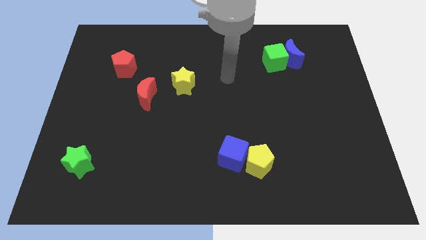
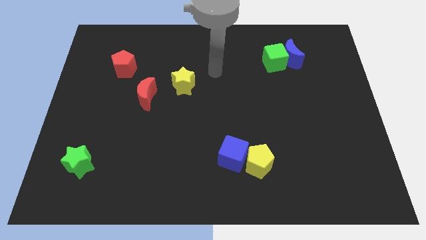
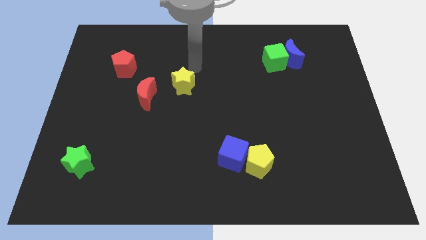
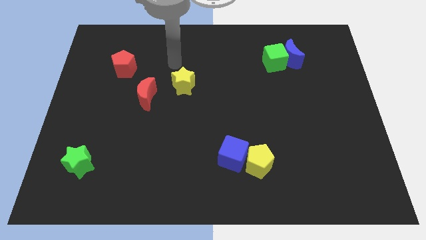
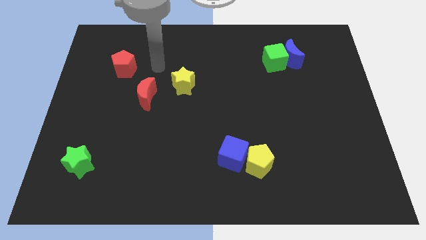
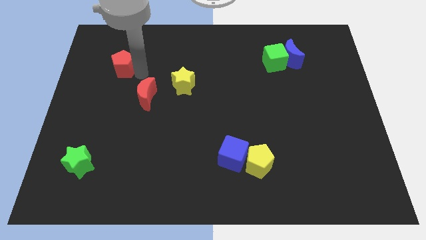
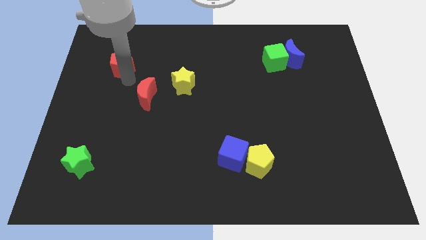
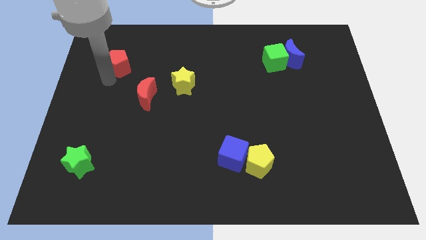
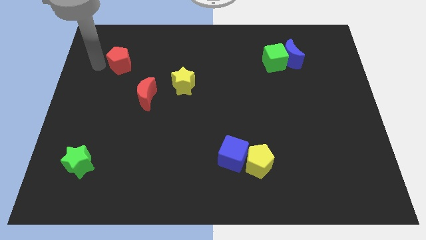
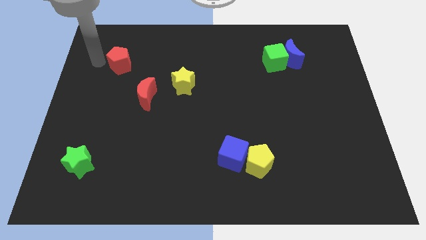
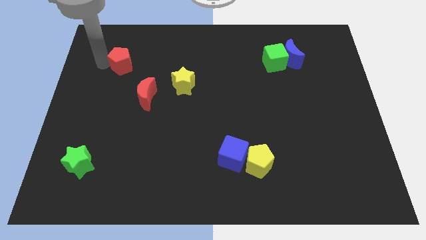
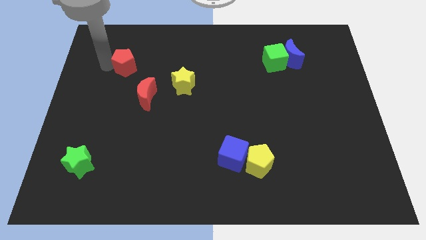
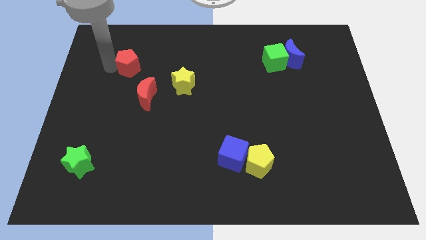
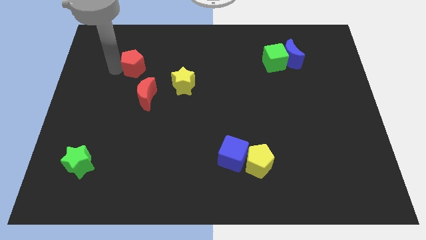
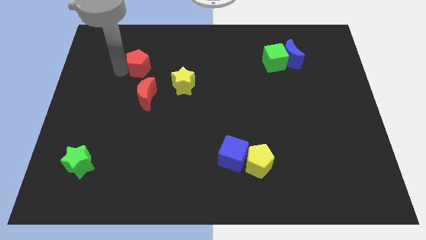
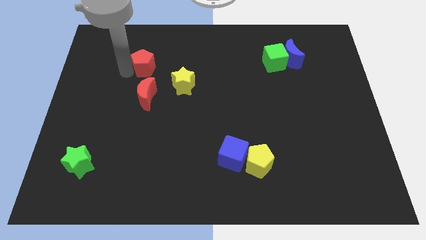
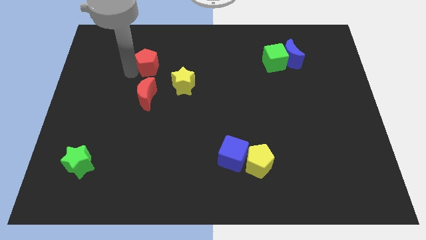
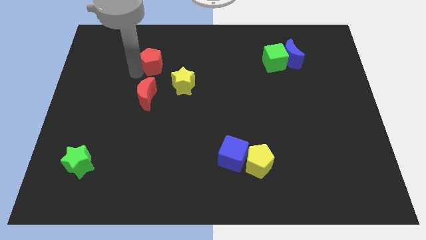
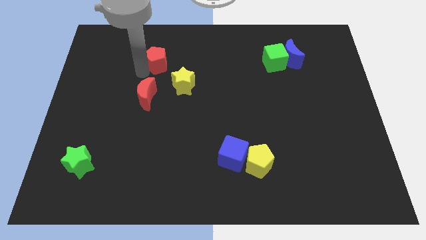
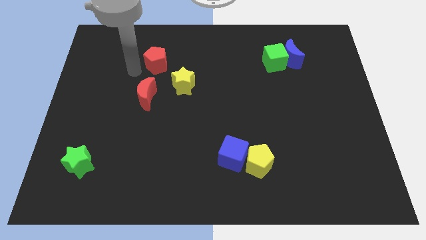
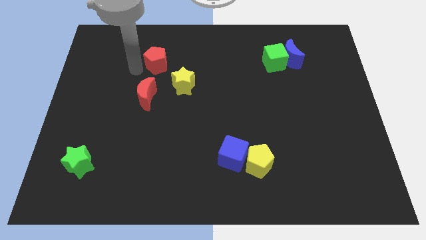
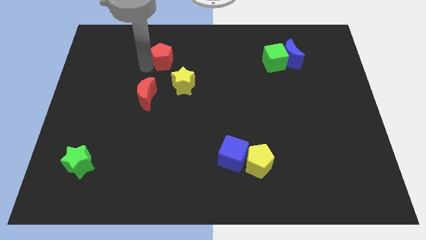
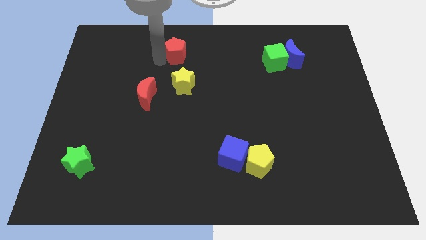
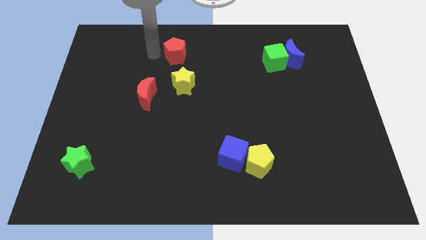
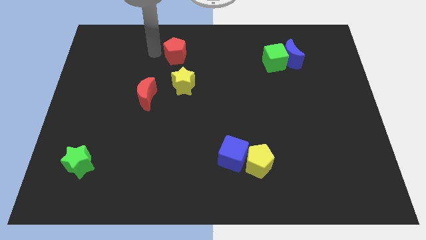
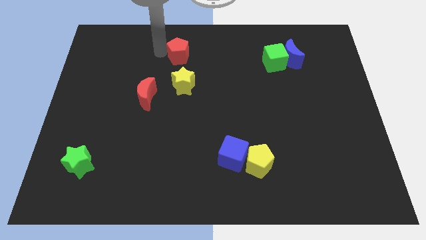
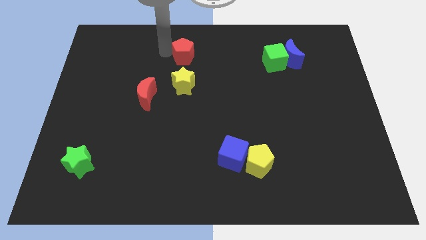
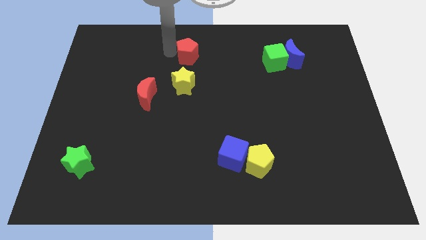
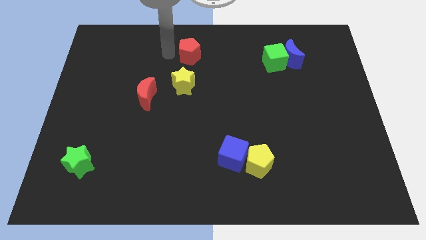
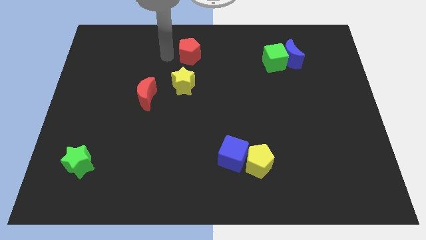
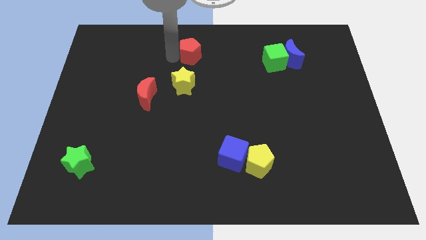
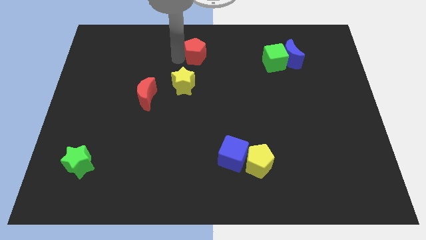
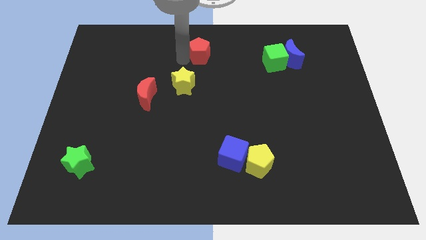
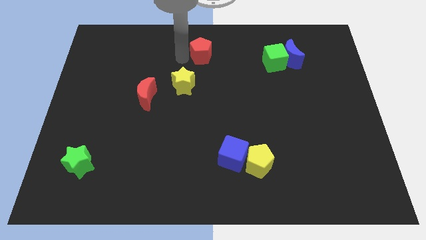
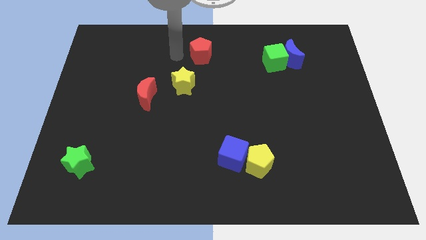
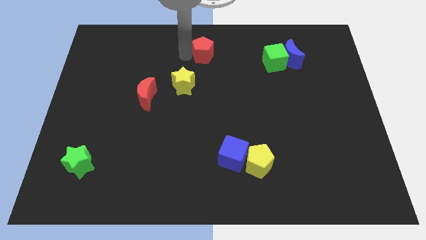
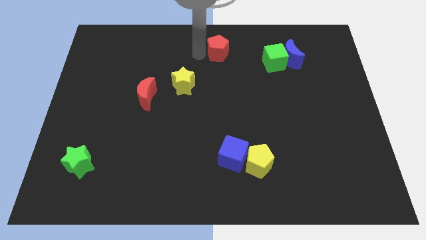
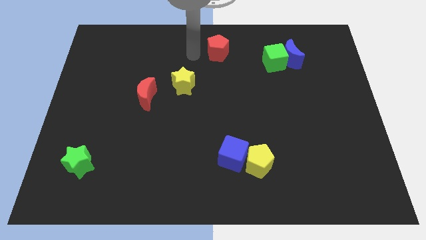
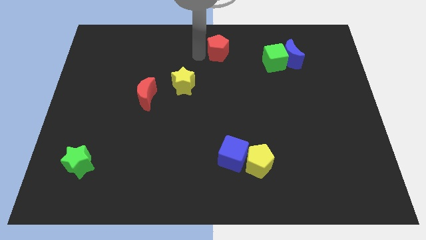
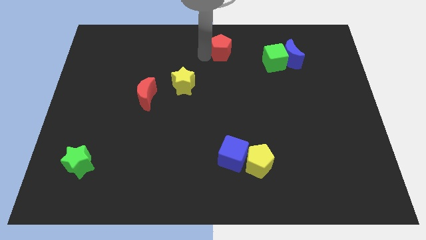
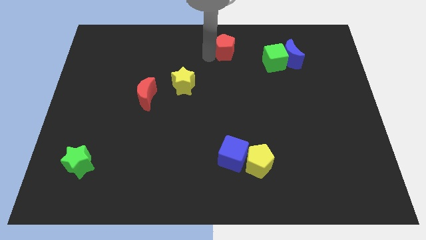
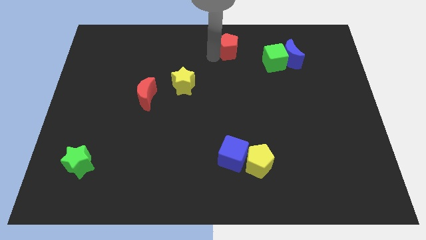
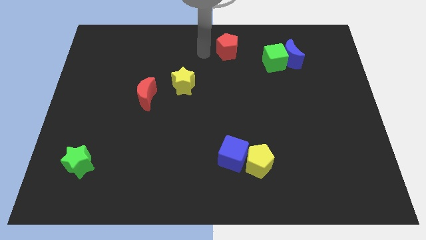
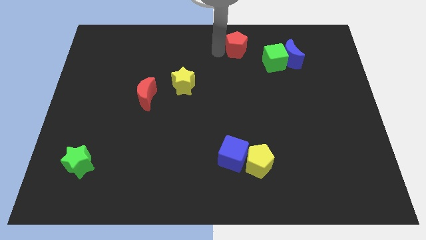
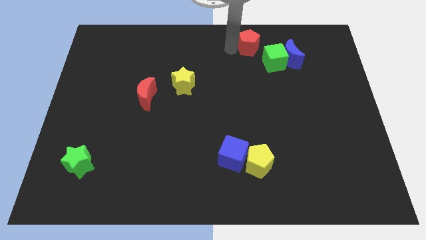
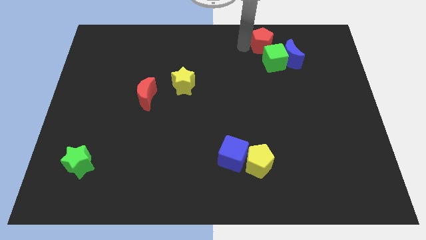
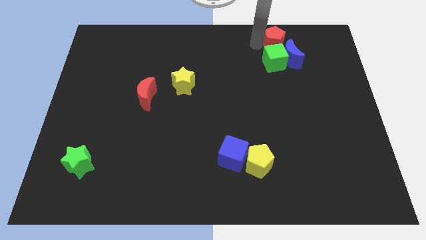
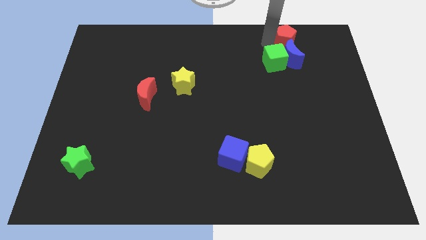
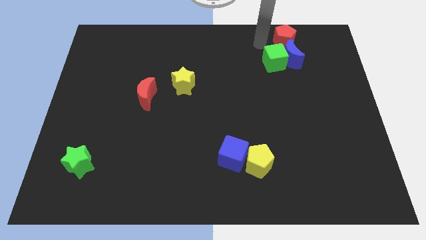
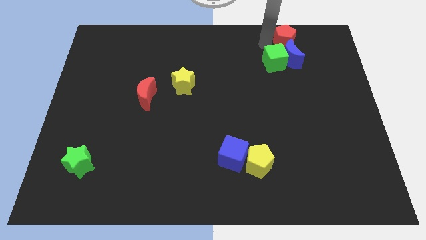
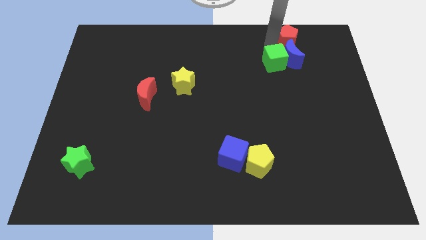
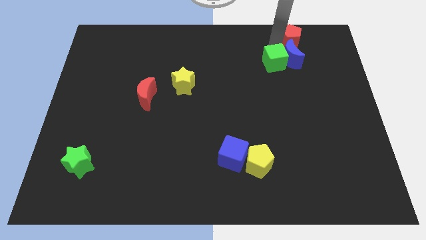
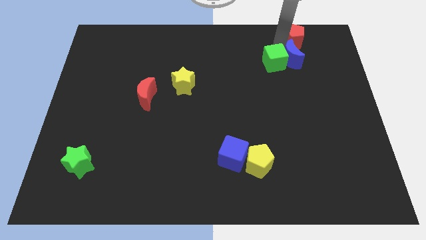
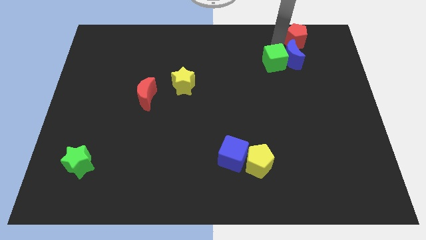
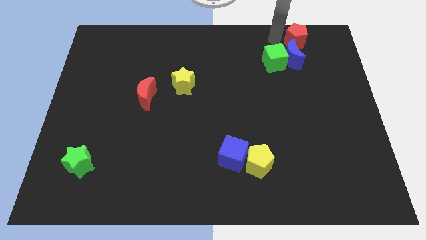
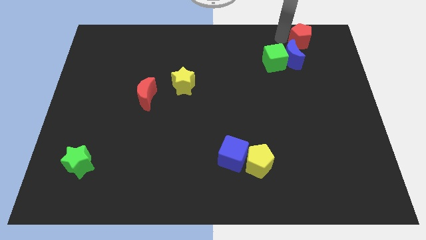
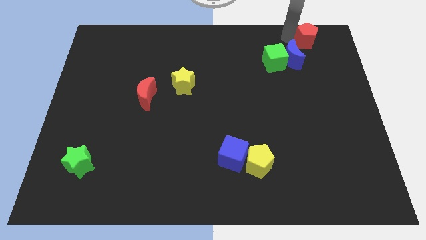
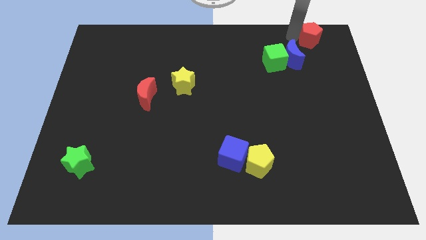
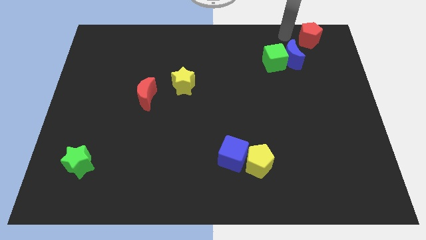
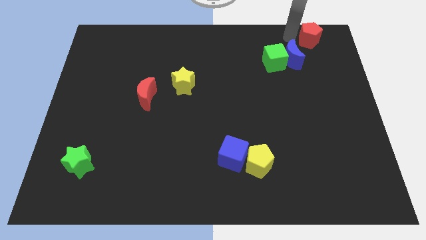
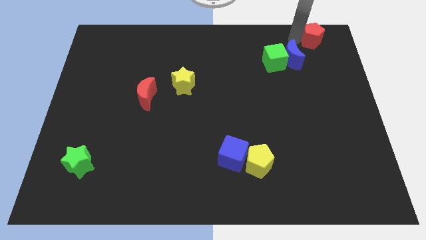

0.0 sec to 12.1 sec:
slide the red pentagon to the top right corner

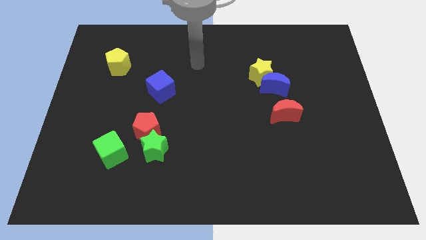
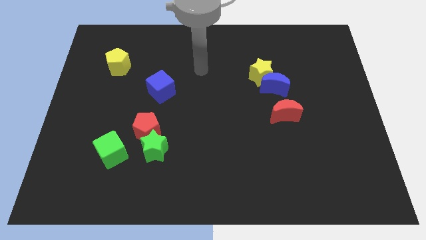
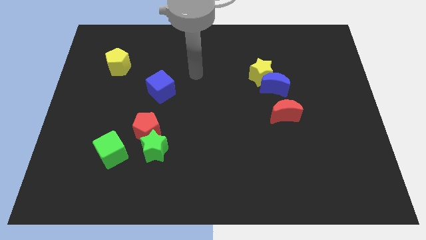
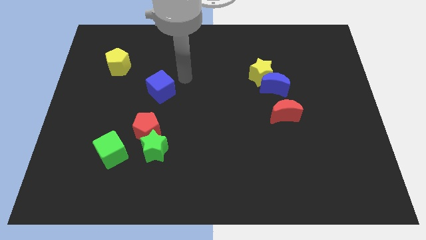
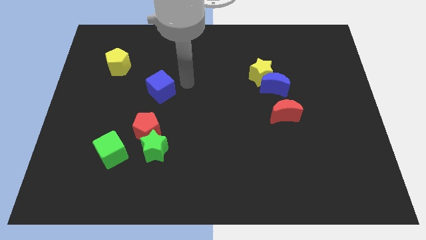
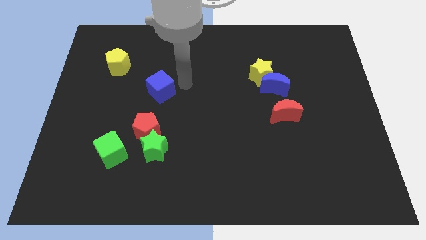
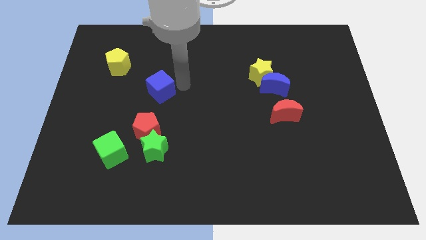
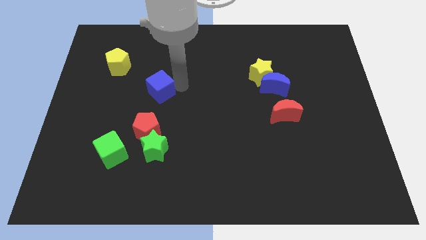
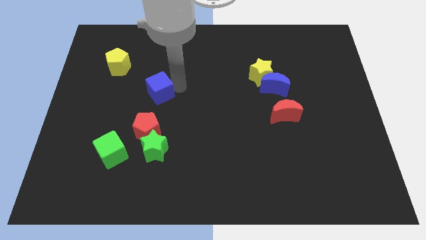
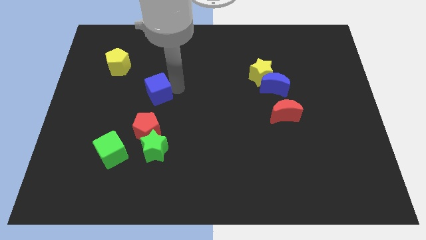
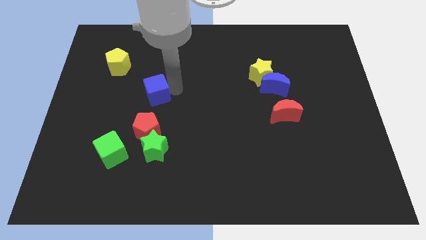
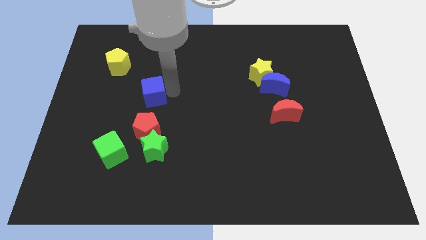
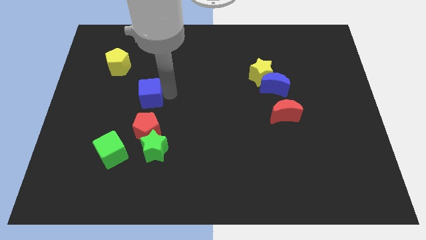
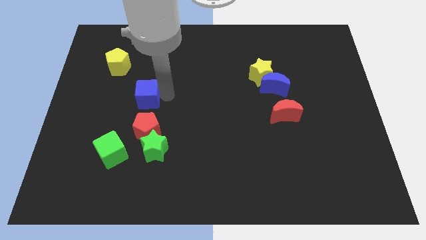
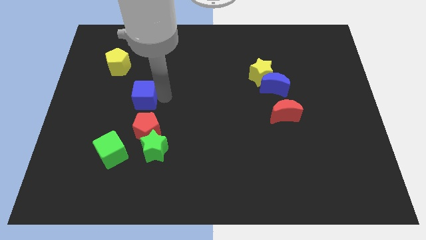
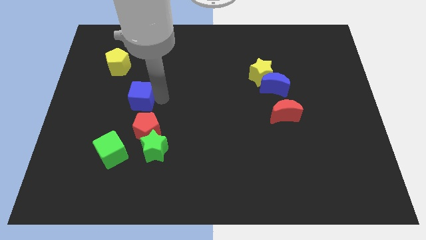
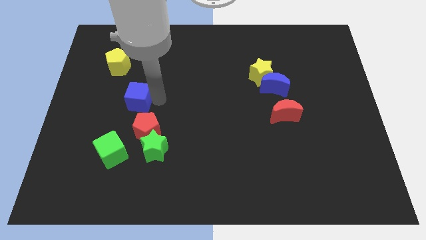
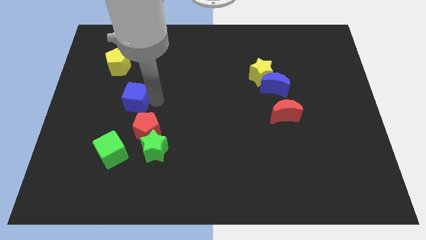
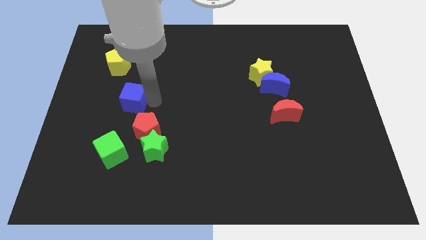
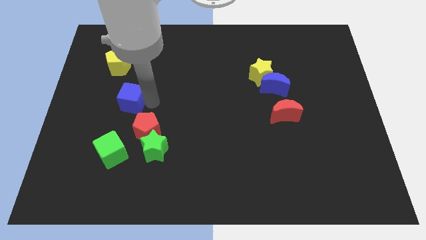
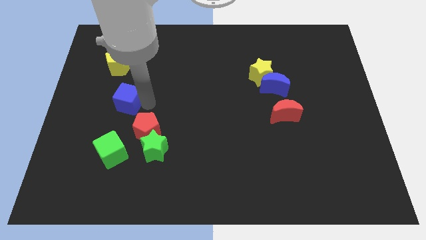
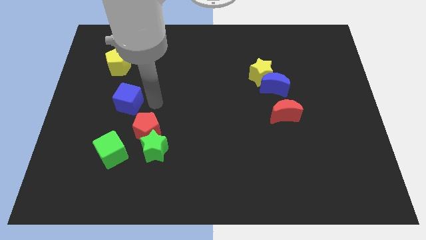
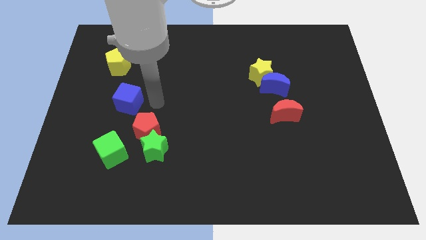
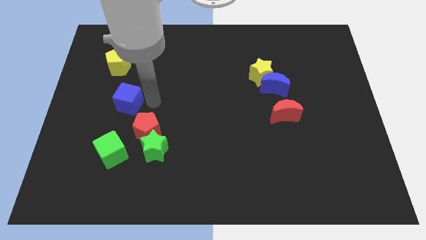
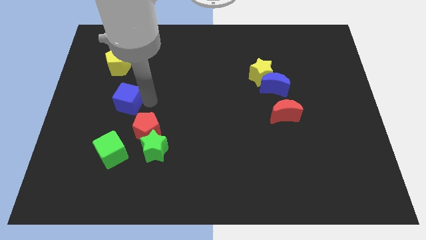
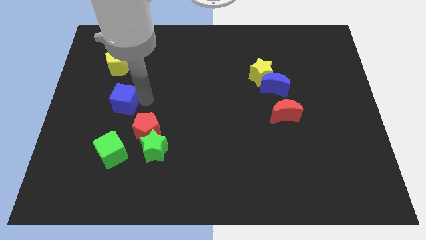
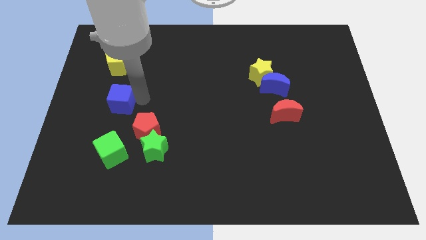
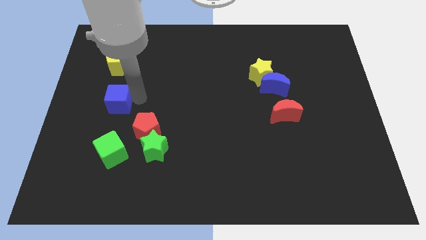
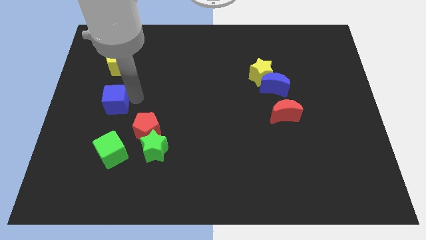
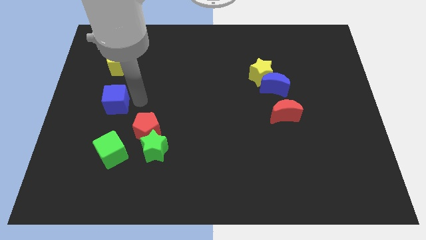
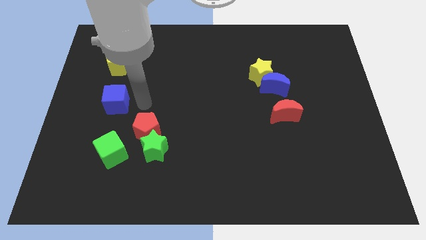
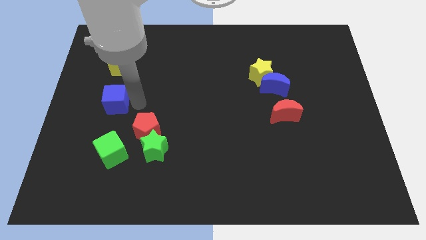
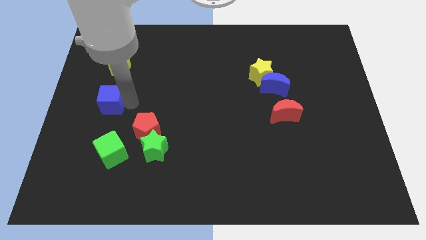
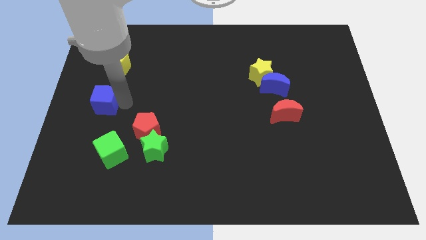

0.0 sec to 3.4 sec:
slide the blue cube to the left side
